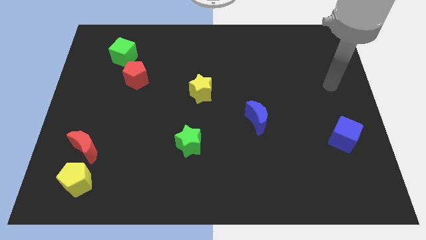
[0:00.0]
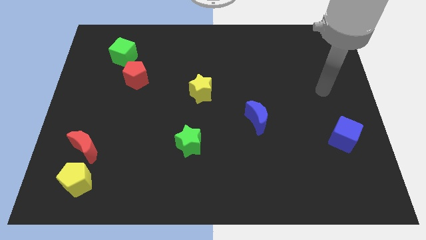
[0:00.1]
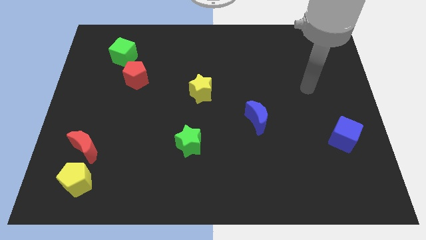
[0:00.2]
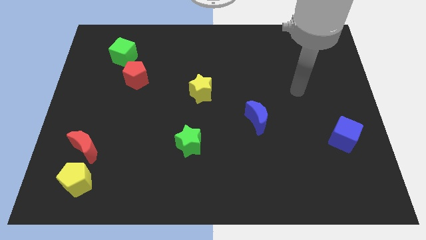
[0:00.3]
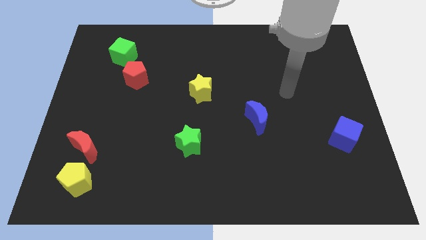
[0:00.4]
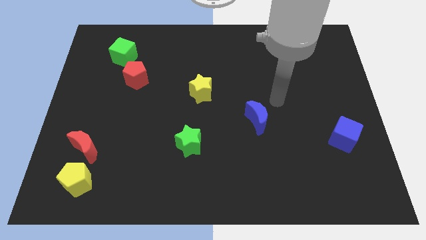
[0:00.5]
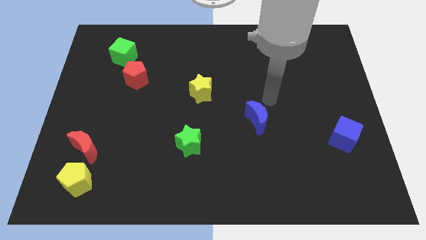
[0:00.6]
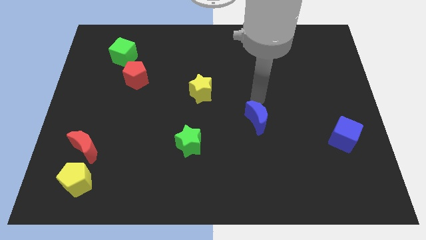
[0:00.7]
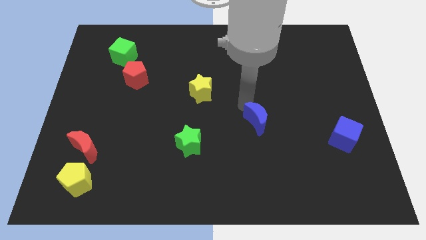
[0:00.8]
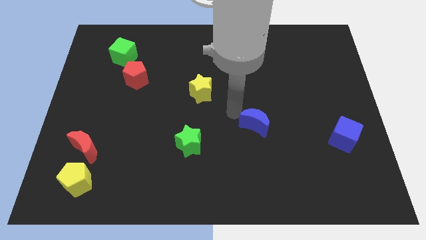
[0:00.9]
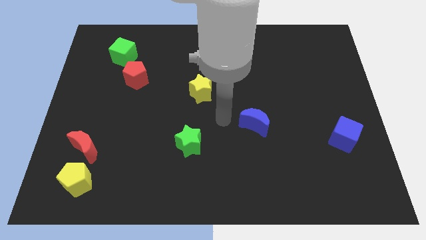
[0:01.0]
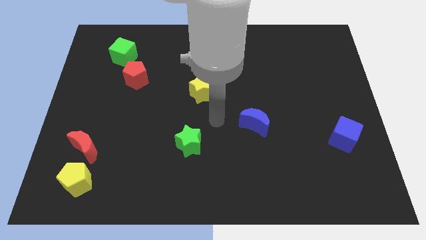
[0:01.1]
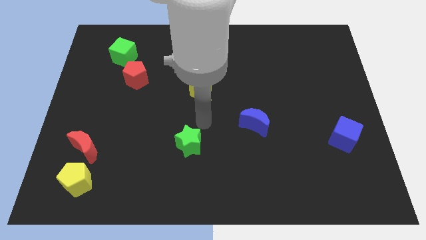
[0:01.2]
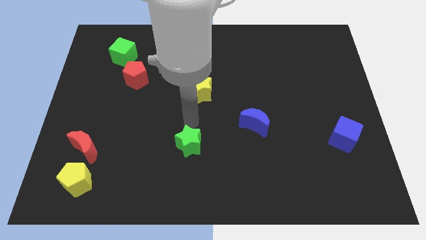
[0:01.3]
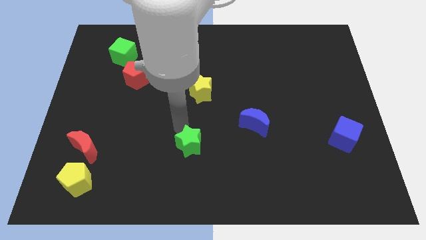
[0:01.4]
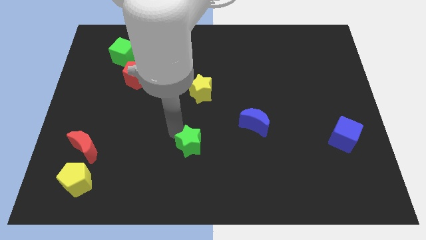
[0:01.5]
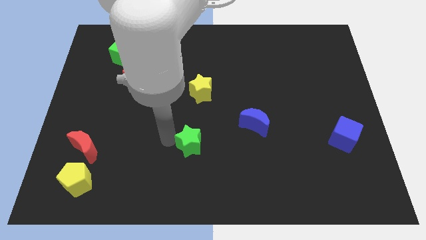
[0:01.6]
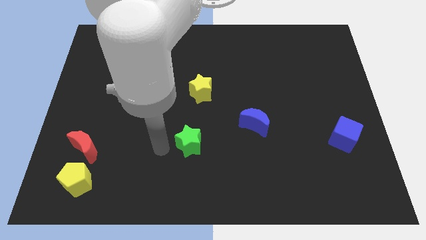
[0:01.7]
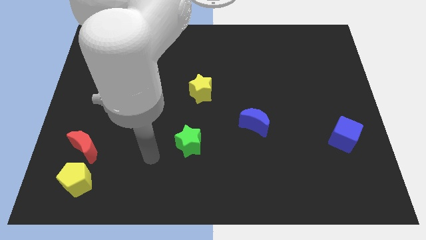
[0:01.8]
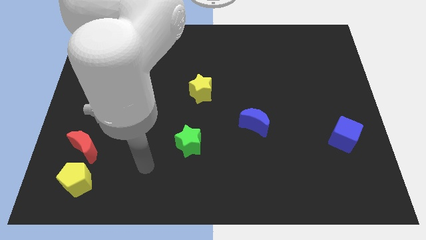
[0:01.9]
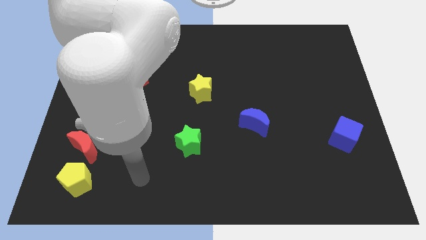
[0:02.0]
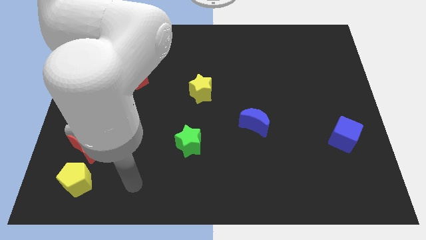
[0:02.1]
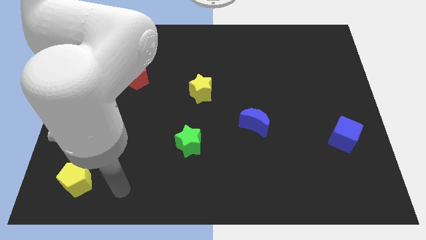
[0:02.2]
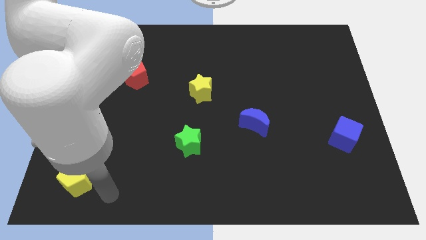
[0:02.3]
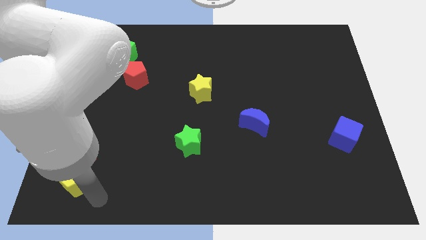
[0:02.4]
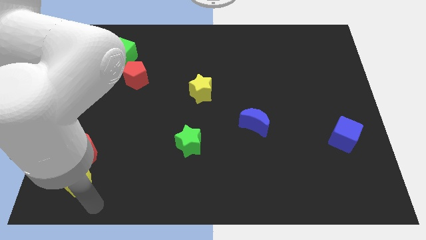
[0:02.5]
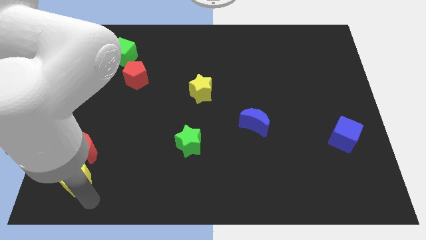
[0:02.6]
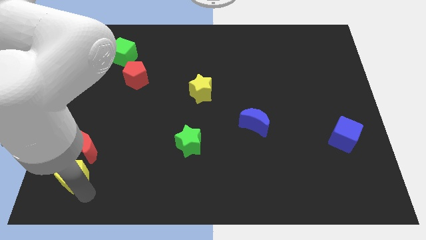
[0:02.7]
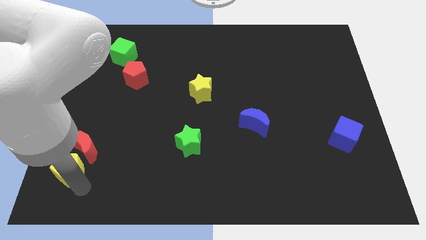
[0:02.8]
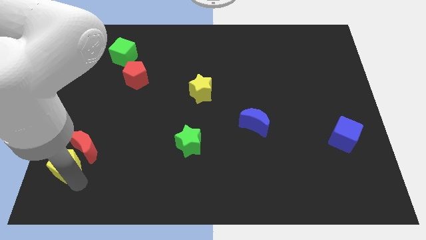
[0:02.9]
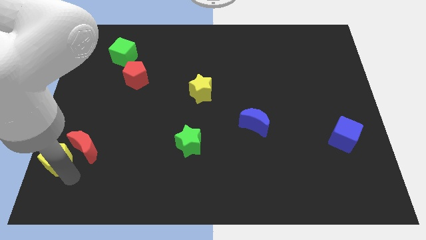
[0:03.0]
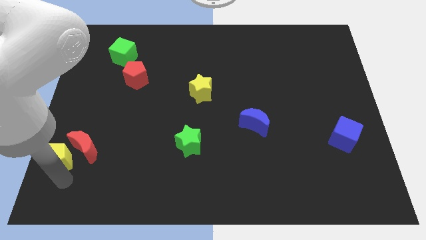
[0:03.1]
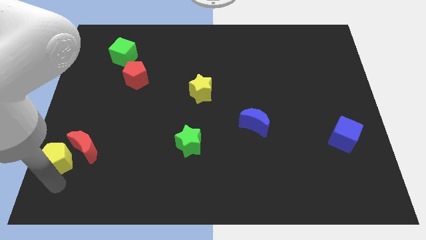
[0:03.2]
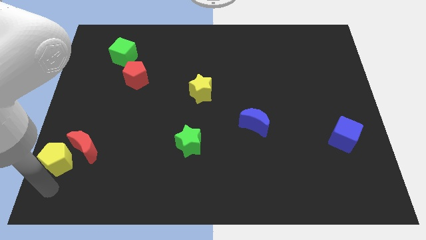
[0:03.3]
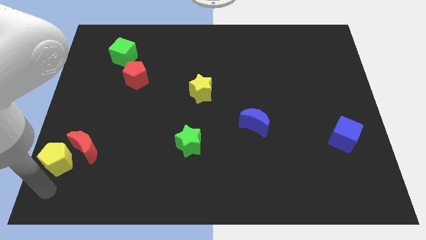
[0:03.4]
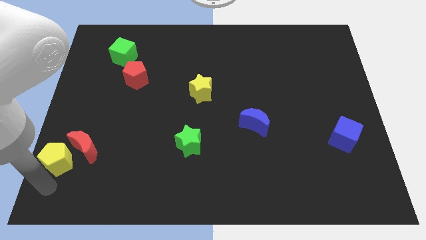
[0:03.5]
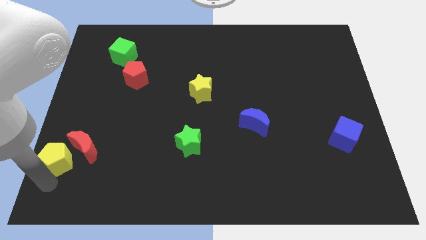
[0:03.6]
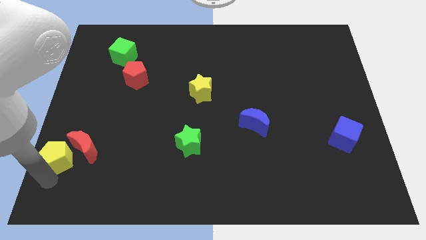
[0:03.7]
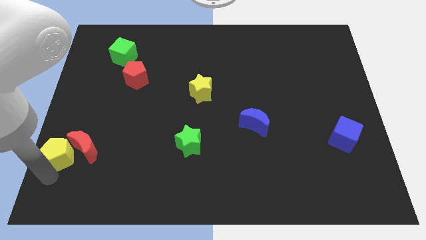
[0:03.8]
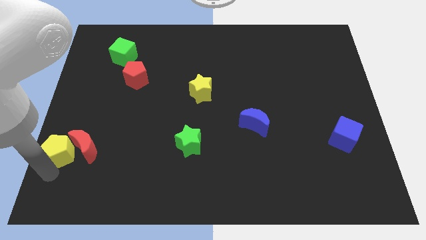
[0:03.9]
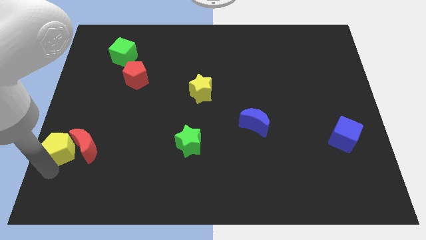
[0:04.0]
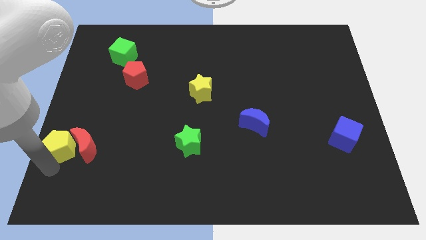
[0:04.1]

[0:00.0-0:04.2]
move the yellow pentagon slightly upwards

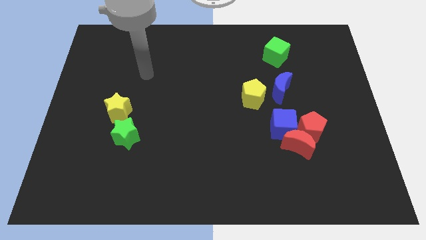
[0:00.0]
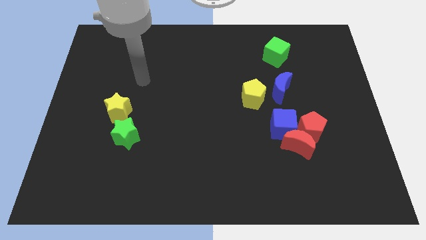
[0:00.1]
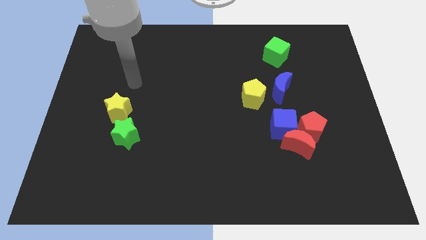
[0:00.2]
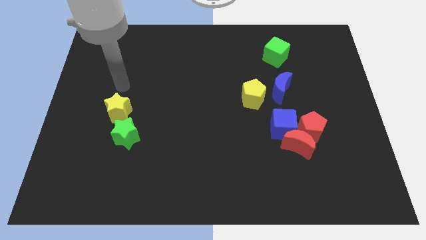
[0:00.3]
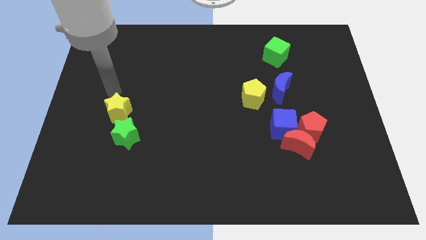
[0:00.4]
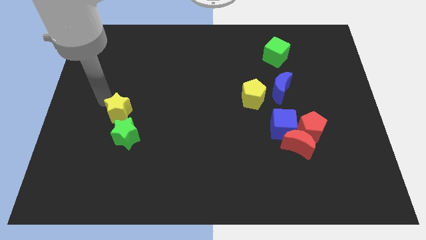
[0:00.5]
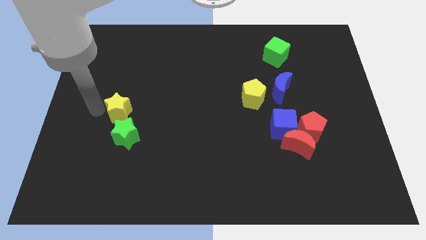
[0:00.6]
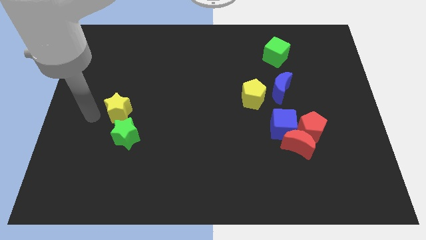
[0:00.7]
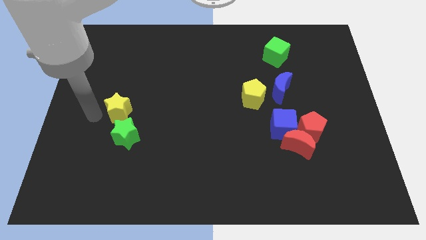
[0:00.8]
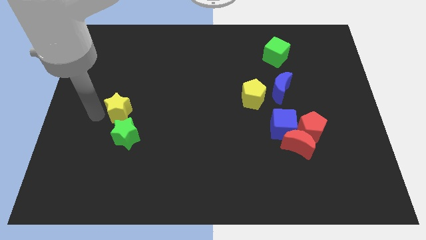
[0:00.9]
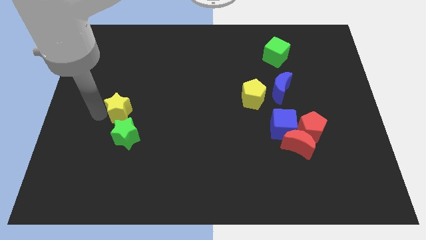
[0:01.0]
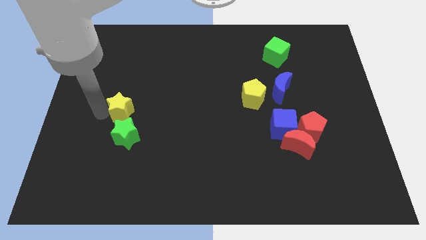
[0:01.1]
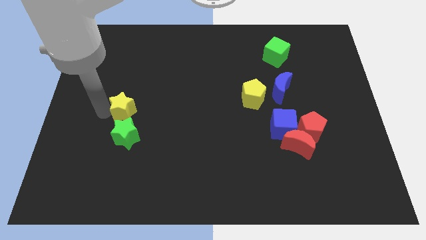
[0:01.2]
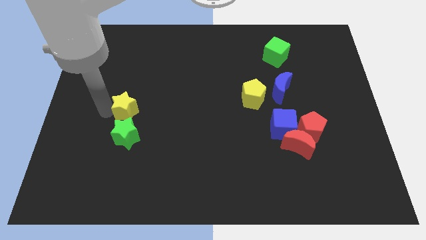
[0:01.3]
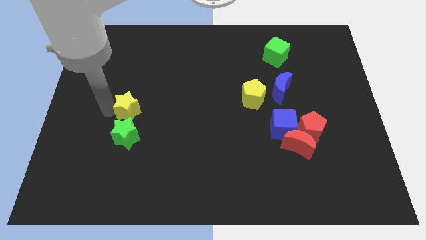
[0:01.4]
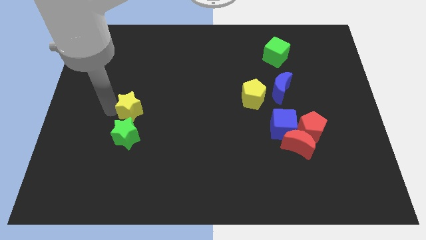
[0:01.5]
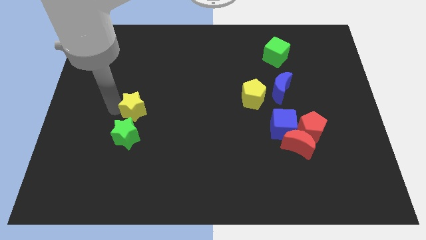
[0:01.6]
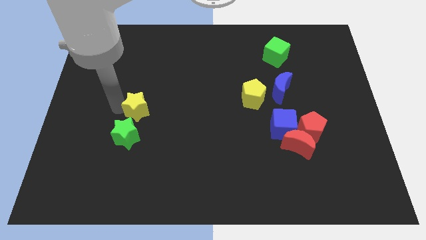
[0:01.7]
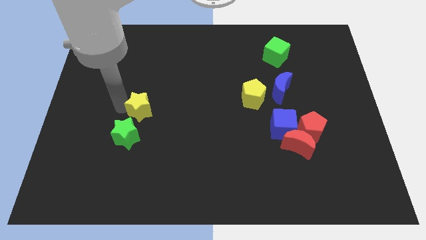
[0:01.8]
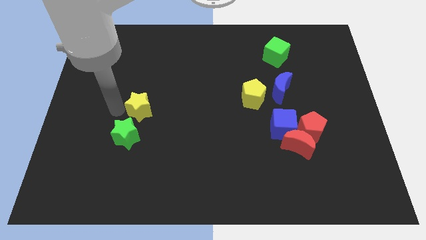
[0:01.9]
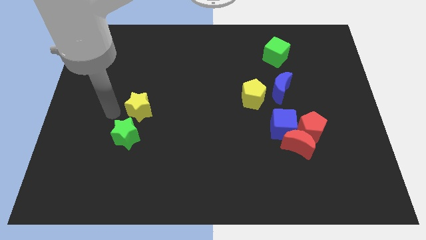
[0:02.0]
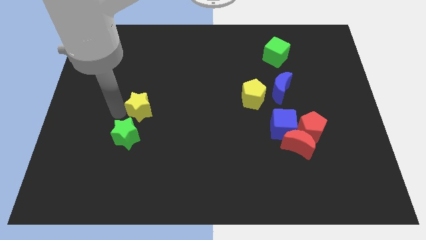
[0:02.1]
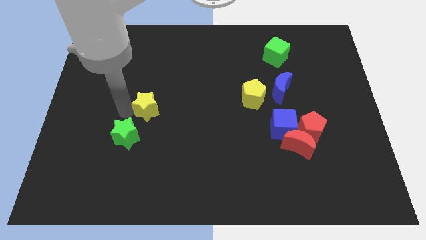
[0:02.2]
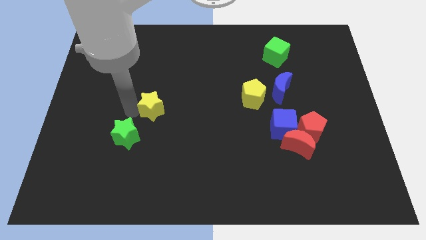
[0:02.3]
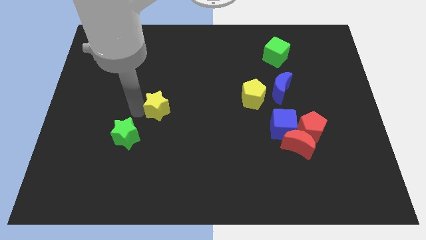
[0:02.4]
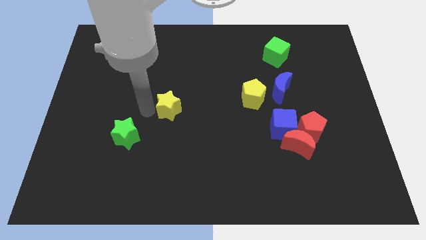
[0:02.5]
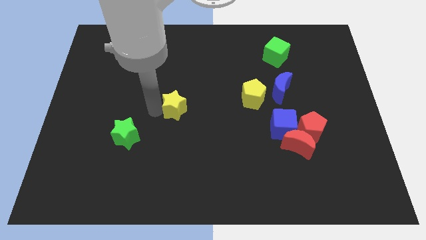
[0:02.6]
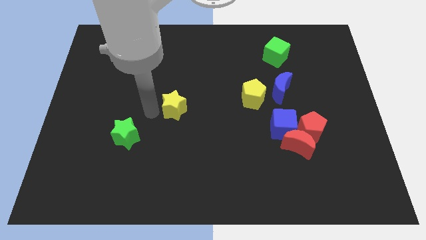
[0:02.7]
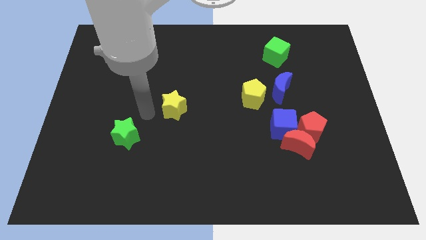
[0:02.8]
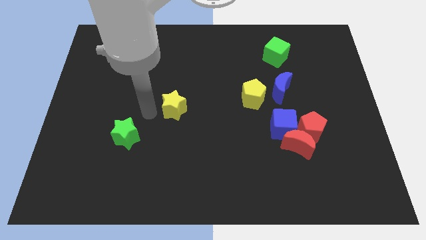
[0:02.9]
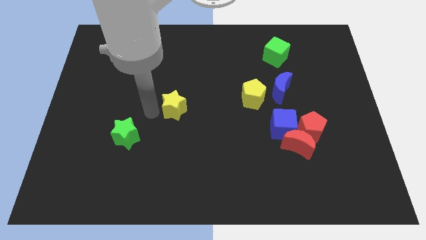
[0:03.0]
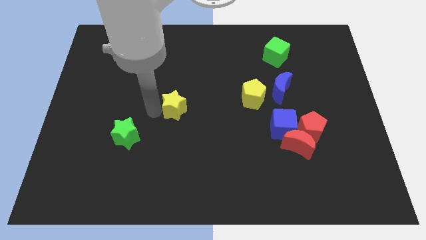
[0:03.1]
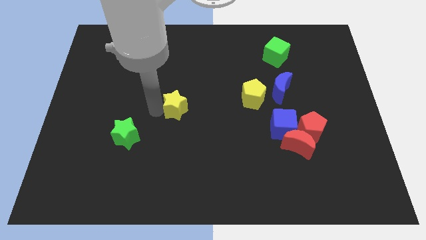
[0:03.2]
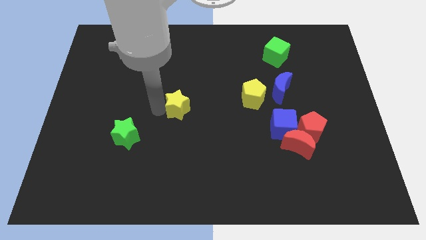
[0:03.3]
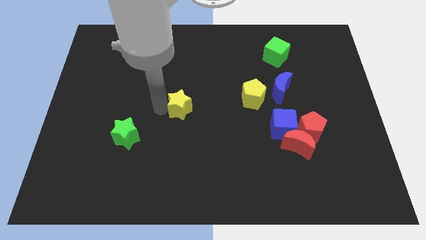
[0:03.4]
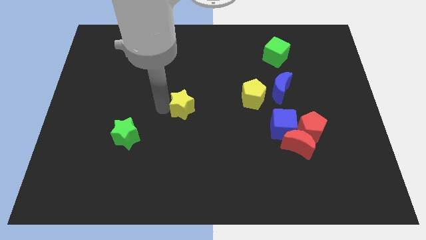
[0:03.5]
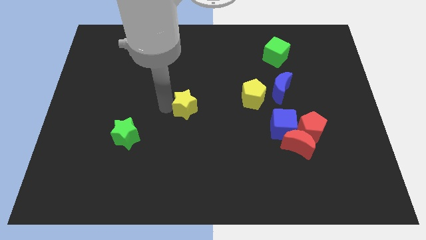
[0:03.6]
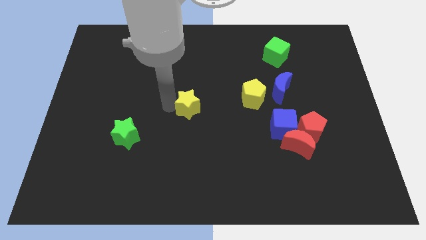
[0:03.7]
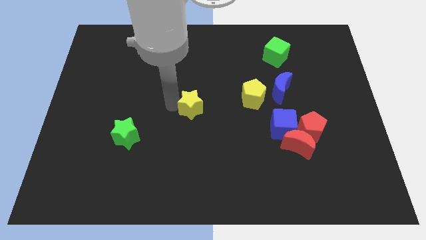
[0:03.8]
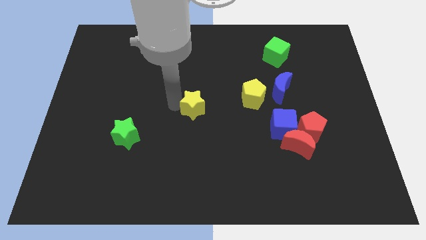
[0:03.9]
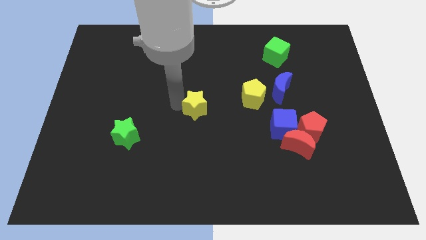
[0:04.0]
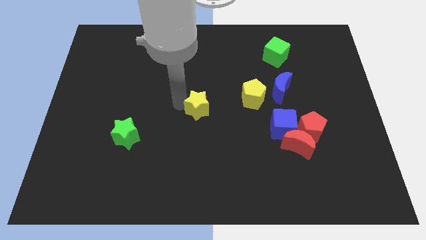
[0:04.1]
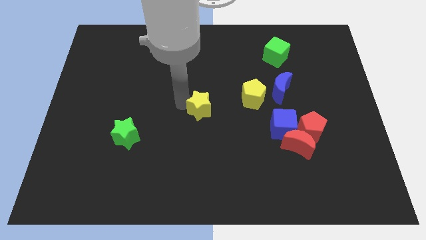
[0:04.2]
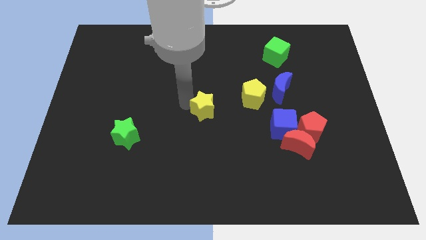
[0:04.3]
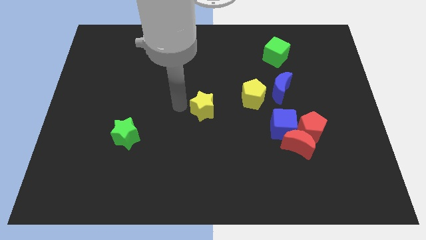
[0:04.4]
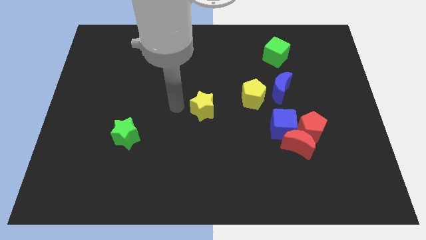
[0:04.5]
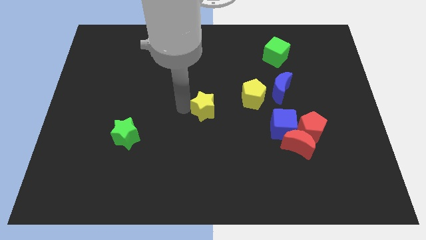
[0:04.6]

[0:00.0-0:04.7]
slide the yellow star to the right
